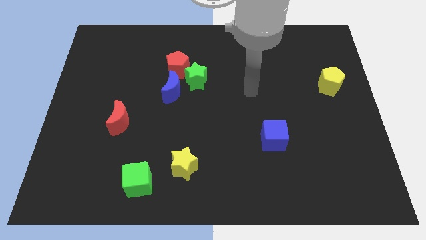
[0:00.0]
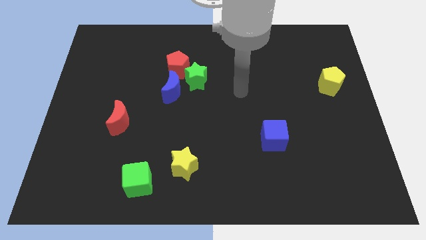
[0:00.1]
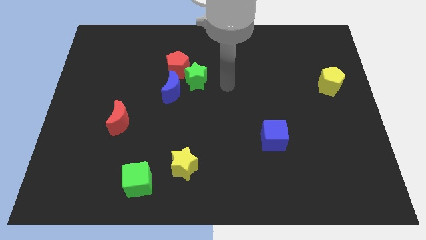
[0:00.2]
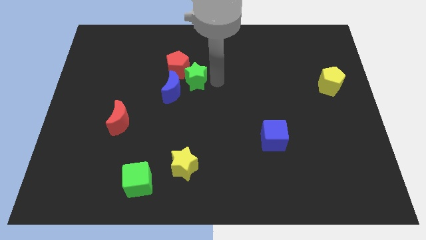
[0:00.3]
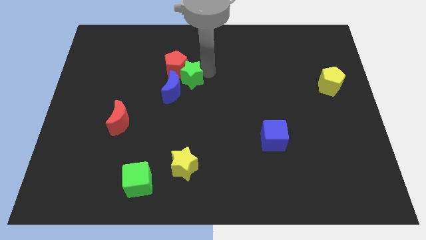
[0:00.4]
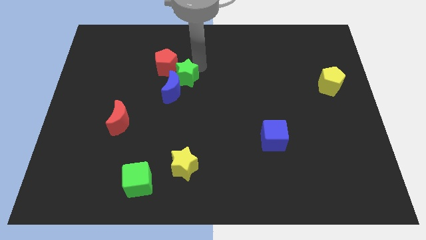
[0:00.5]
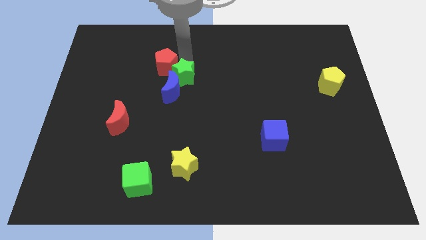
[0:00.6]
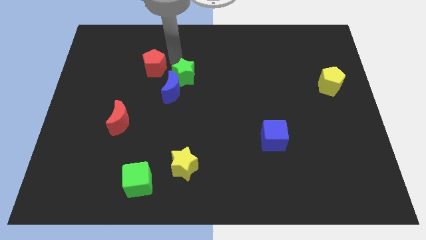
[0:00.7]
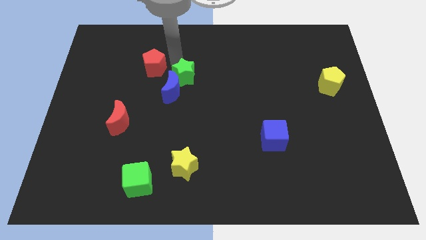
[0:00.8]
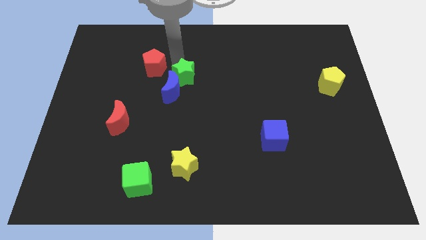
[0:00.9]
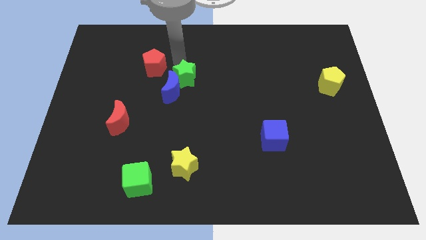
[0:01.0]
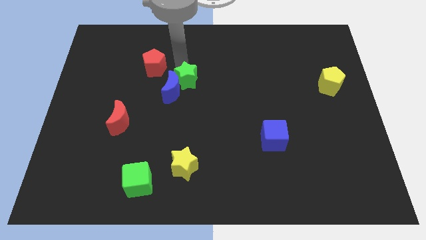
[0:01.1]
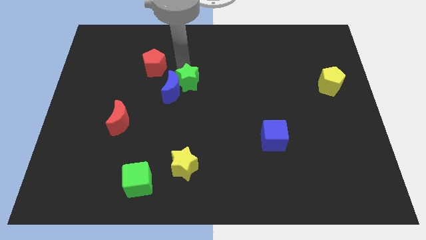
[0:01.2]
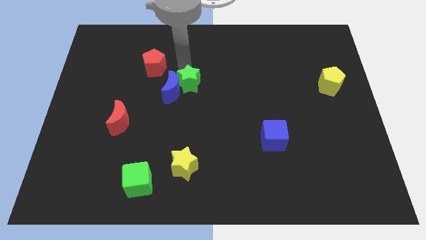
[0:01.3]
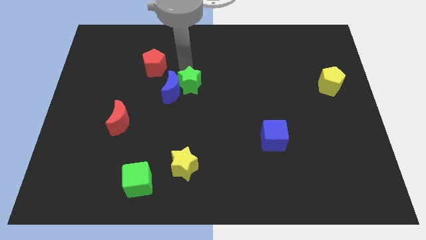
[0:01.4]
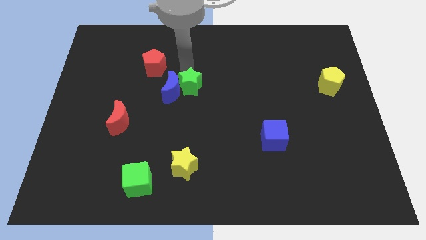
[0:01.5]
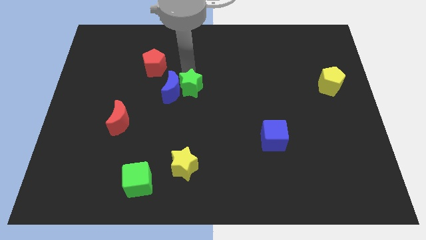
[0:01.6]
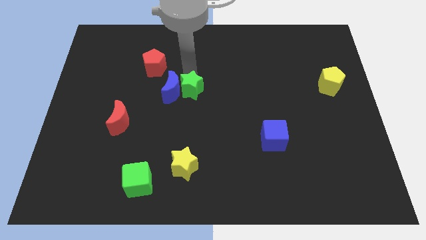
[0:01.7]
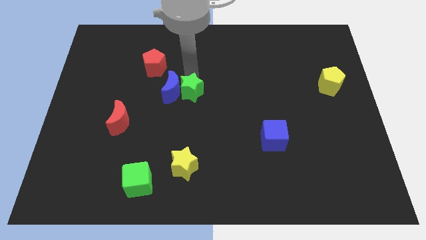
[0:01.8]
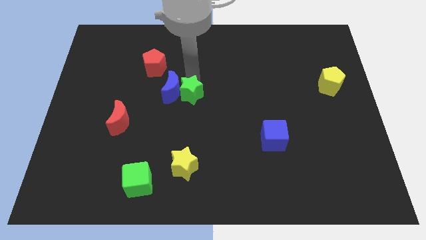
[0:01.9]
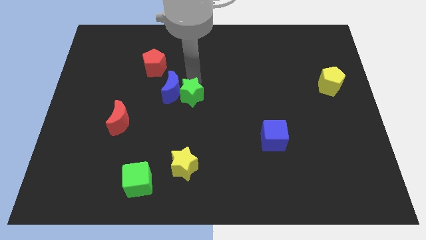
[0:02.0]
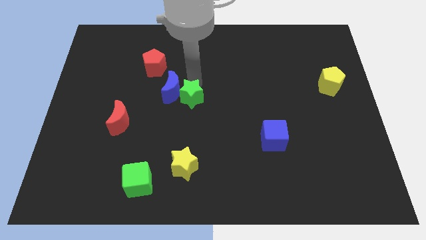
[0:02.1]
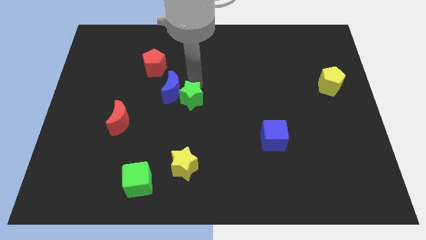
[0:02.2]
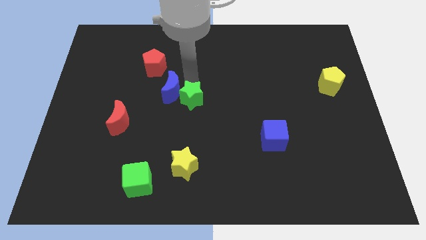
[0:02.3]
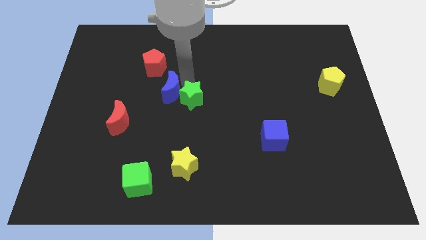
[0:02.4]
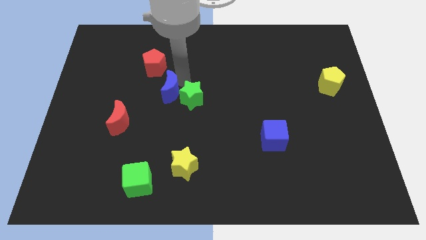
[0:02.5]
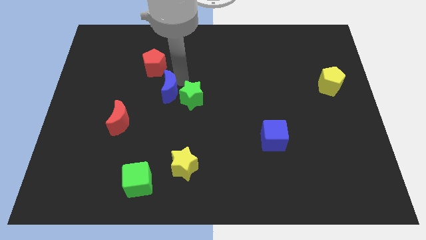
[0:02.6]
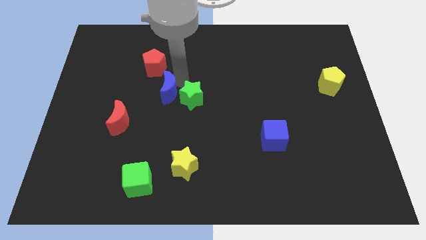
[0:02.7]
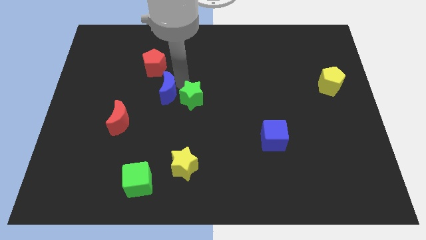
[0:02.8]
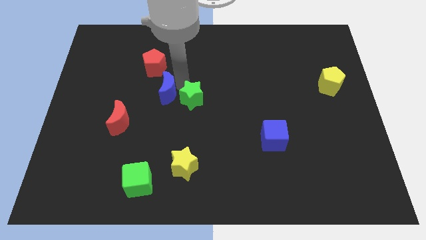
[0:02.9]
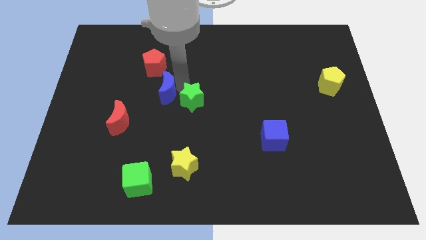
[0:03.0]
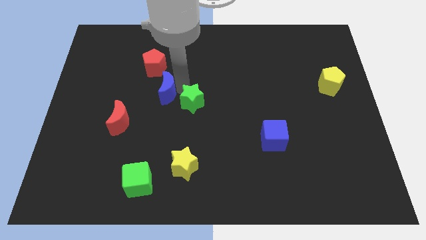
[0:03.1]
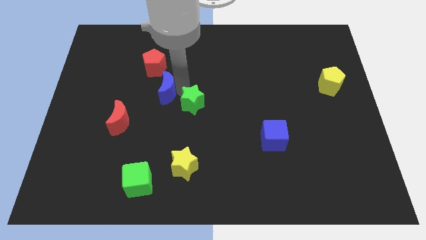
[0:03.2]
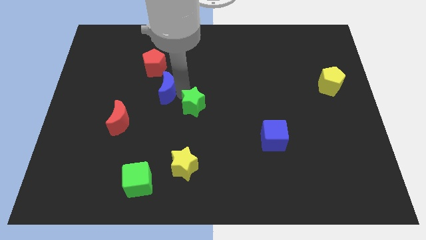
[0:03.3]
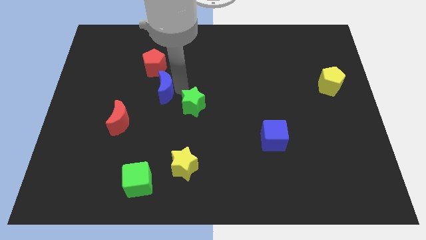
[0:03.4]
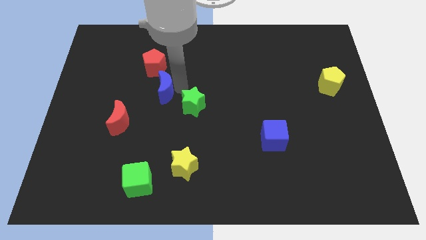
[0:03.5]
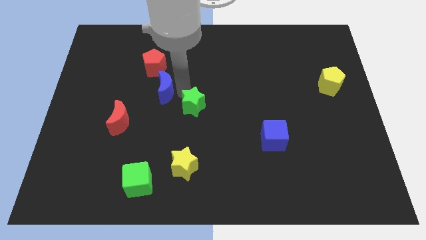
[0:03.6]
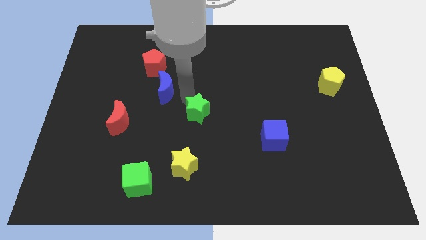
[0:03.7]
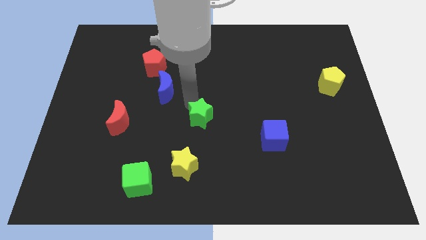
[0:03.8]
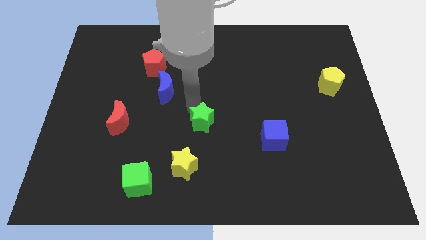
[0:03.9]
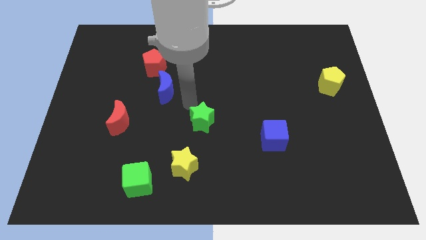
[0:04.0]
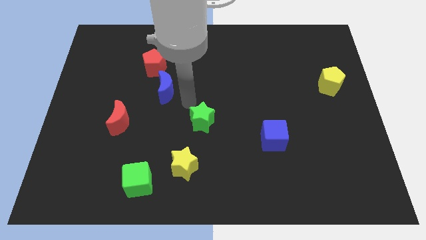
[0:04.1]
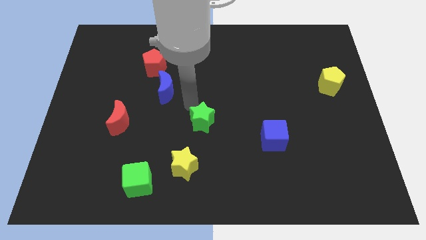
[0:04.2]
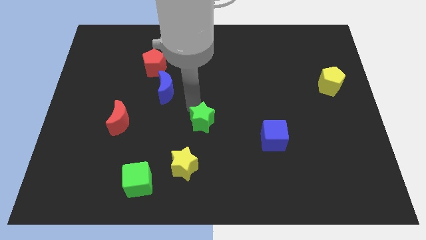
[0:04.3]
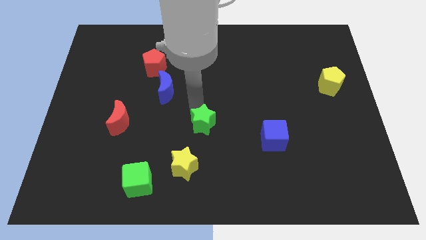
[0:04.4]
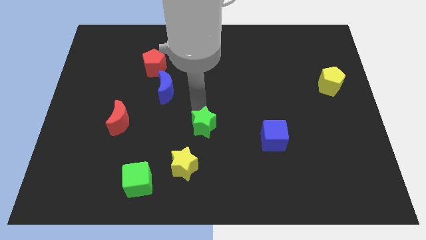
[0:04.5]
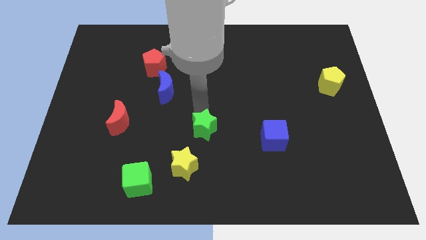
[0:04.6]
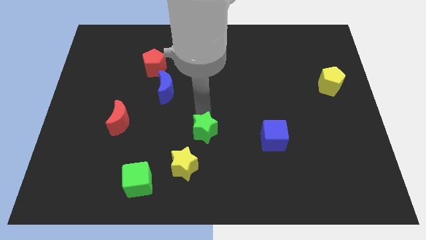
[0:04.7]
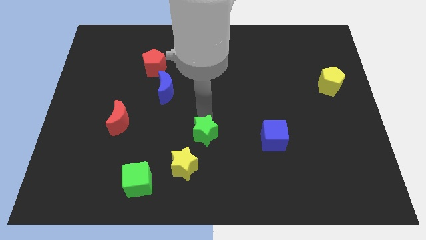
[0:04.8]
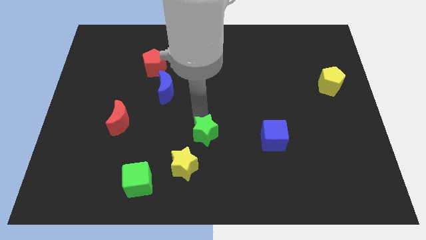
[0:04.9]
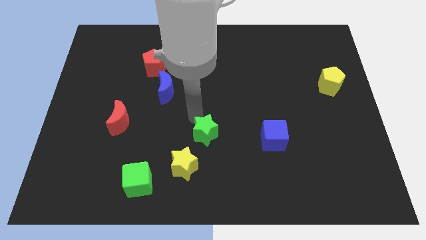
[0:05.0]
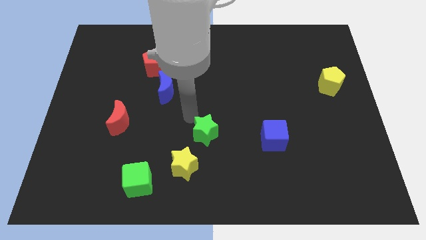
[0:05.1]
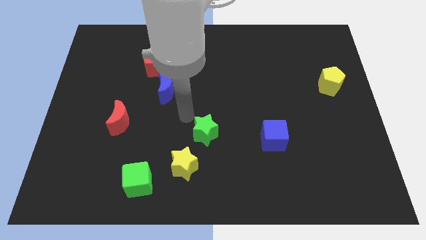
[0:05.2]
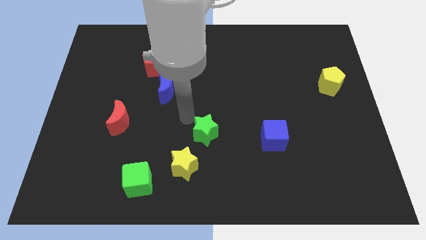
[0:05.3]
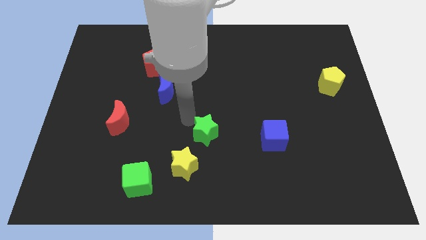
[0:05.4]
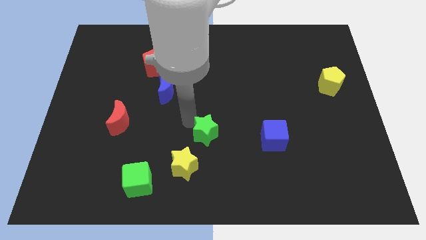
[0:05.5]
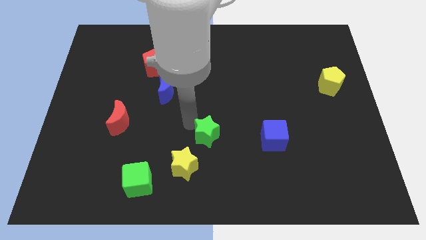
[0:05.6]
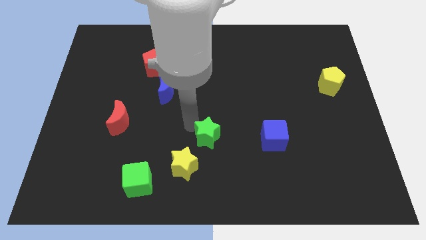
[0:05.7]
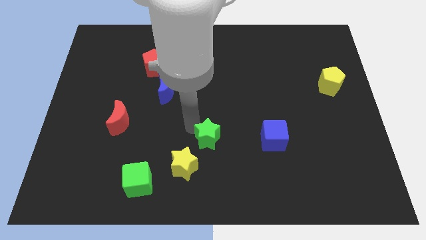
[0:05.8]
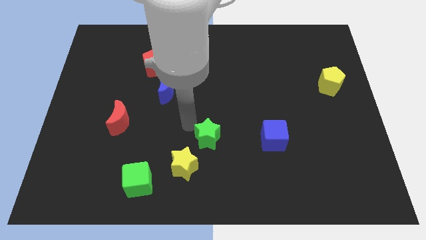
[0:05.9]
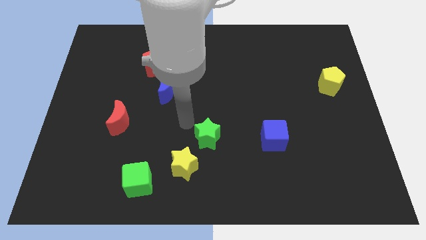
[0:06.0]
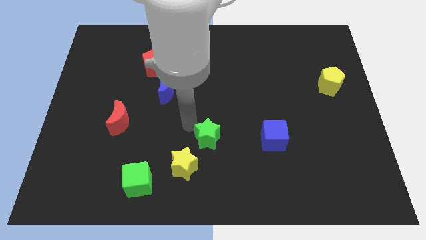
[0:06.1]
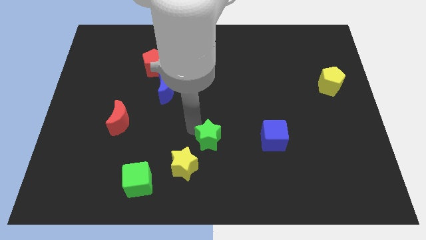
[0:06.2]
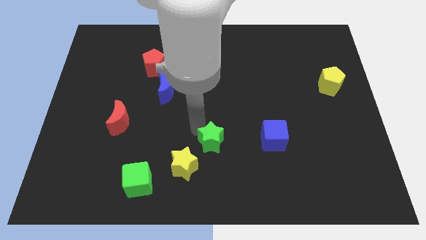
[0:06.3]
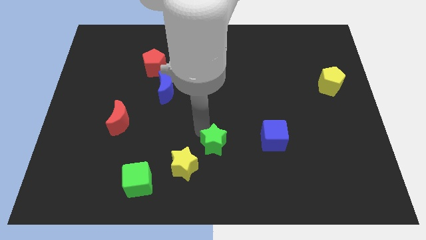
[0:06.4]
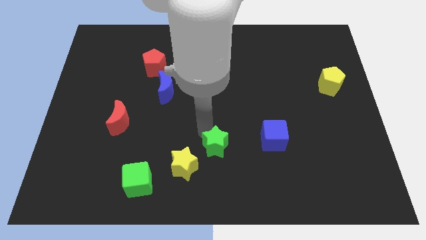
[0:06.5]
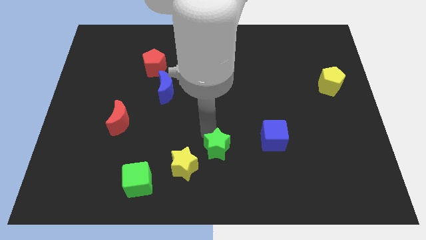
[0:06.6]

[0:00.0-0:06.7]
move the green star right of the yellow star

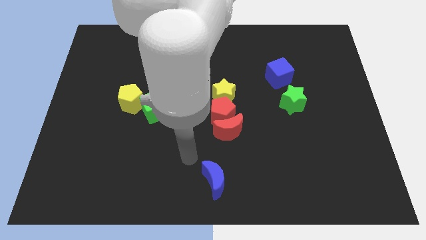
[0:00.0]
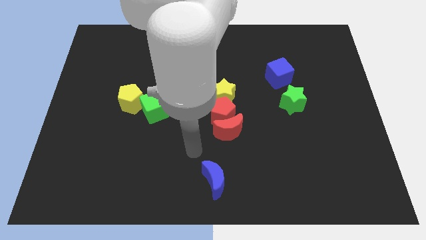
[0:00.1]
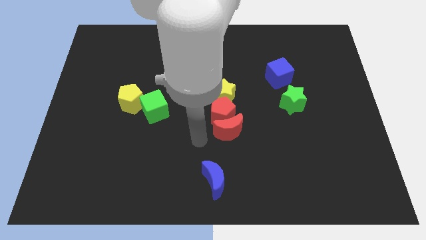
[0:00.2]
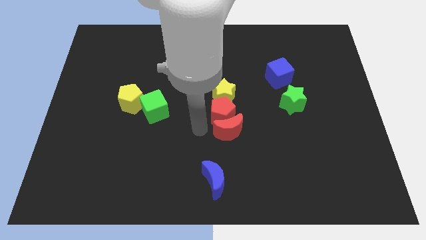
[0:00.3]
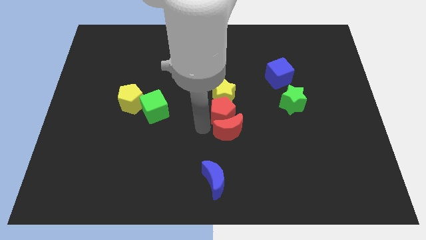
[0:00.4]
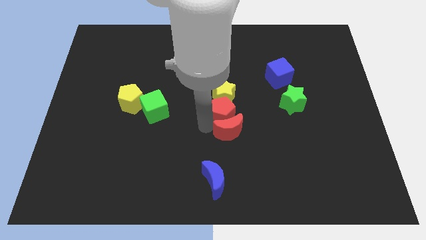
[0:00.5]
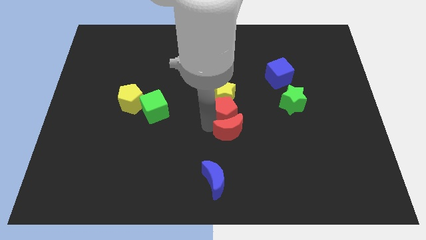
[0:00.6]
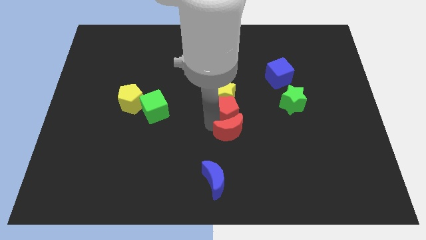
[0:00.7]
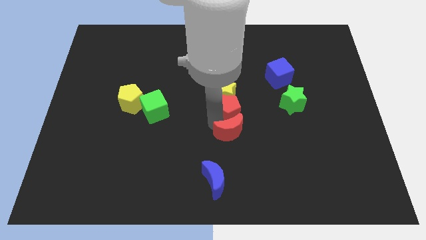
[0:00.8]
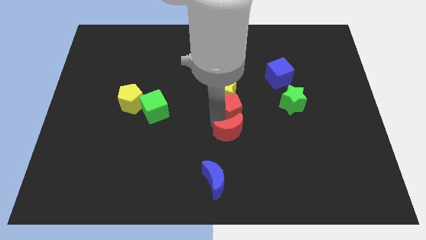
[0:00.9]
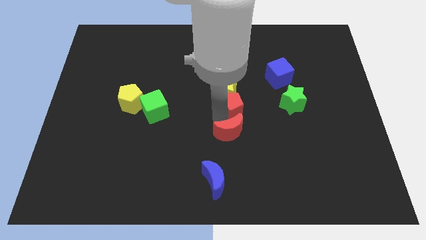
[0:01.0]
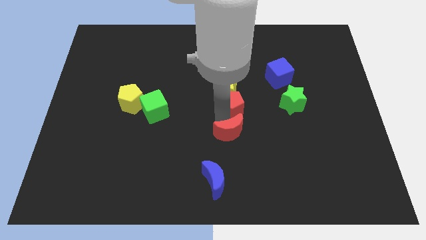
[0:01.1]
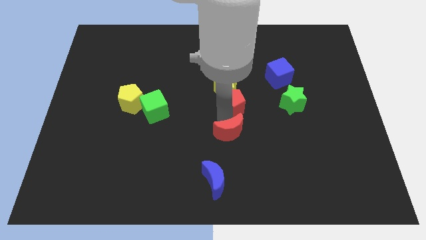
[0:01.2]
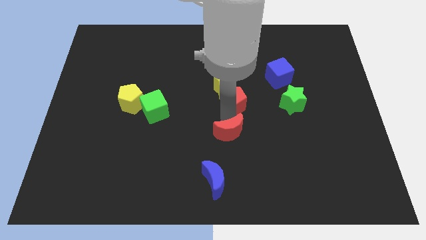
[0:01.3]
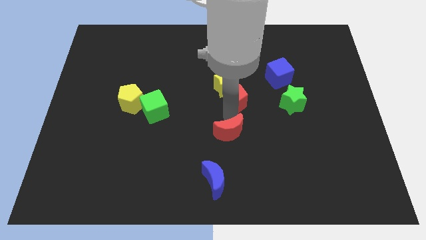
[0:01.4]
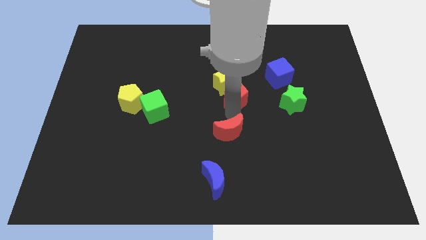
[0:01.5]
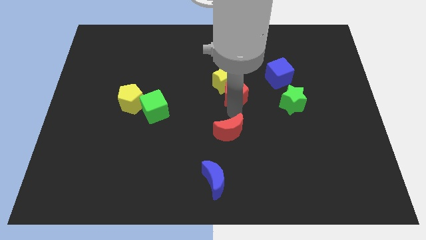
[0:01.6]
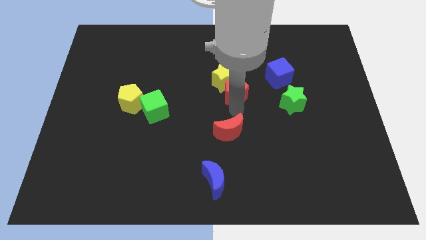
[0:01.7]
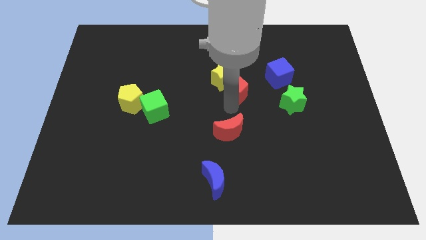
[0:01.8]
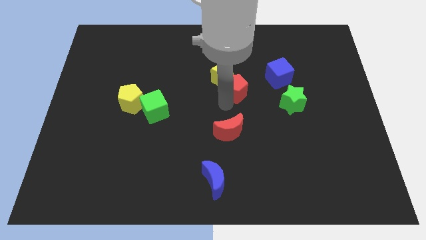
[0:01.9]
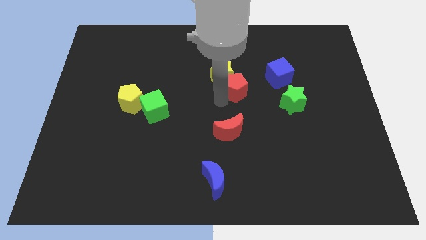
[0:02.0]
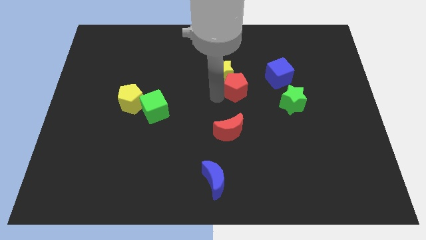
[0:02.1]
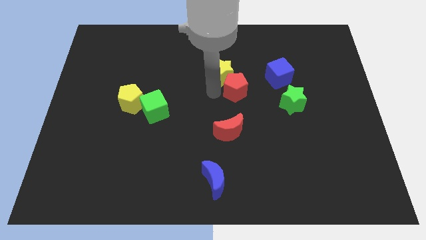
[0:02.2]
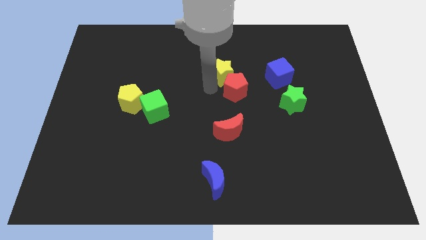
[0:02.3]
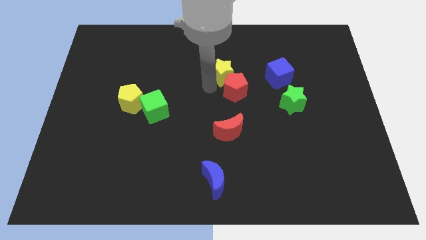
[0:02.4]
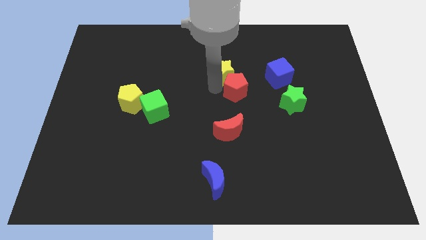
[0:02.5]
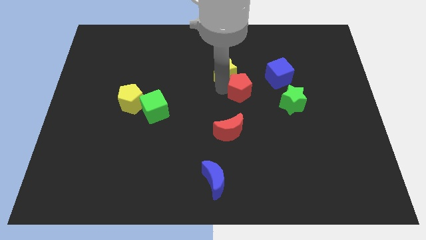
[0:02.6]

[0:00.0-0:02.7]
push the red pentagon diagonally down and to the left of the blue cube
